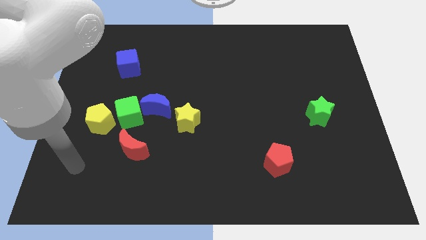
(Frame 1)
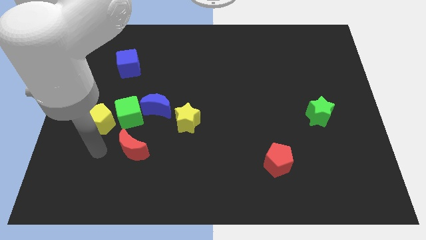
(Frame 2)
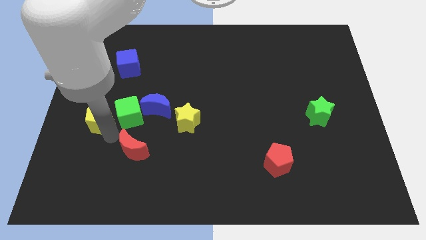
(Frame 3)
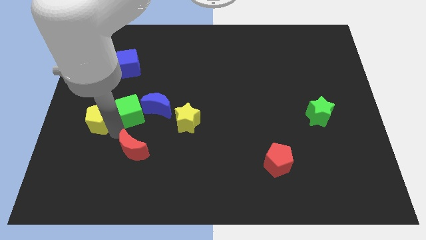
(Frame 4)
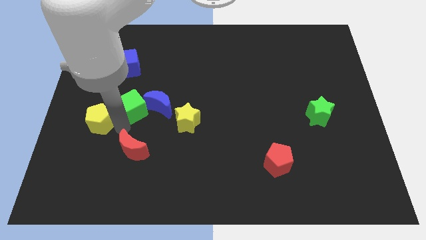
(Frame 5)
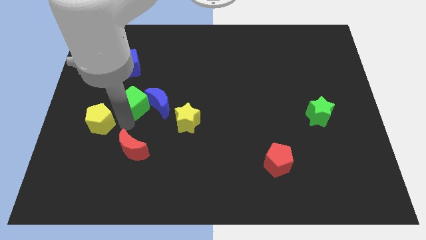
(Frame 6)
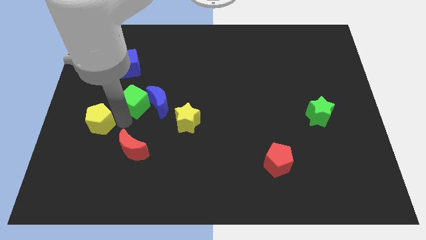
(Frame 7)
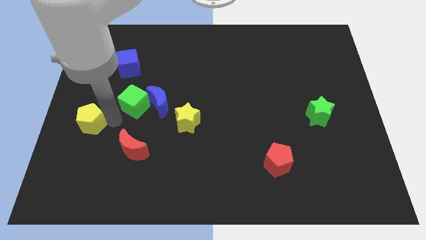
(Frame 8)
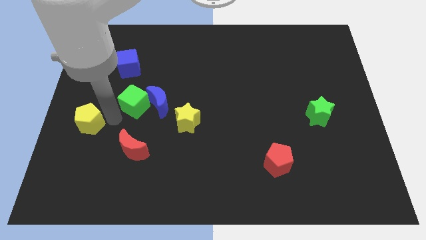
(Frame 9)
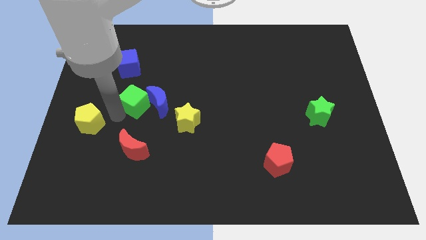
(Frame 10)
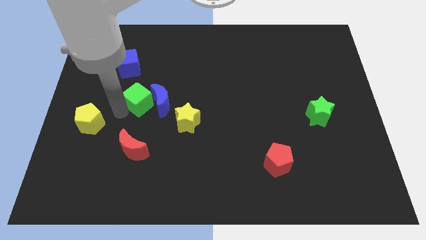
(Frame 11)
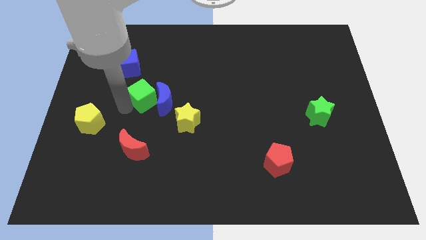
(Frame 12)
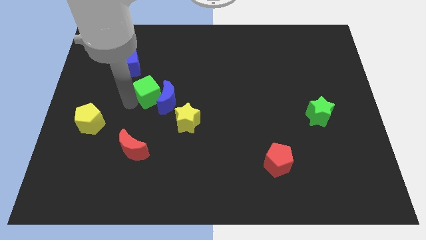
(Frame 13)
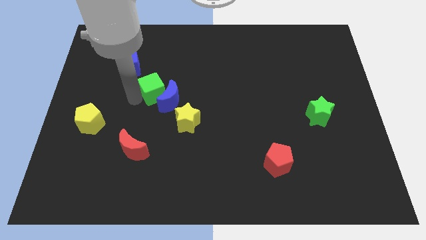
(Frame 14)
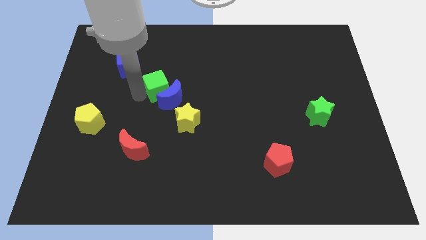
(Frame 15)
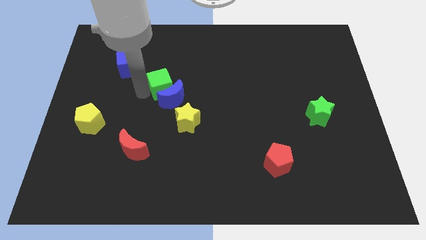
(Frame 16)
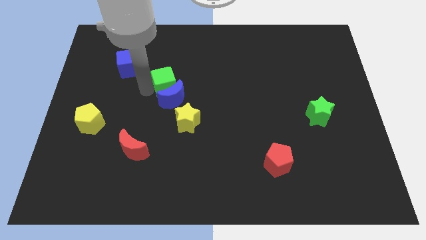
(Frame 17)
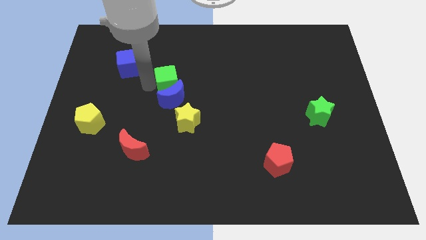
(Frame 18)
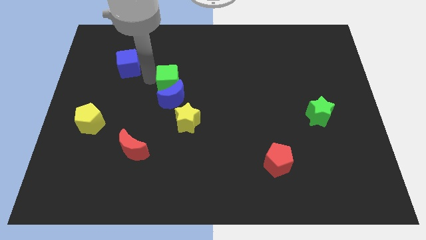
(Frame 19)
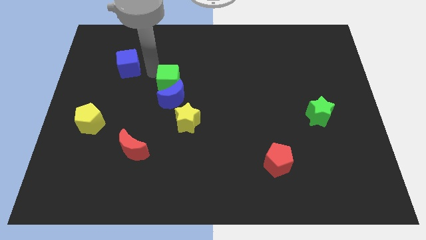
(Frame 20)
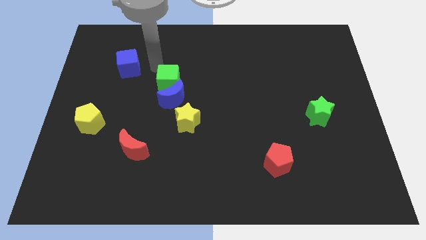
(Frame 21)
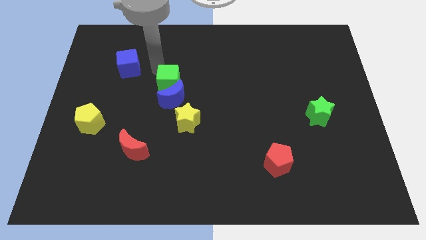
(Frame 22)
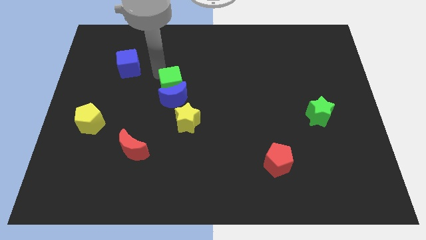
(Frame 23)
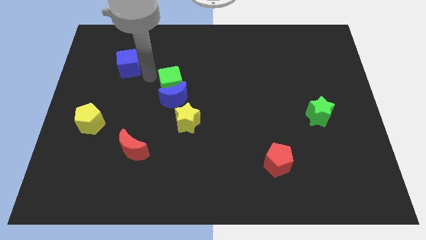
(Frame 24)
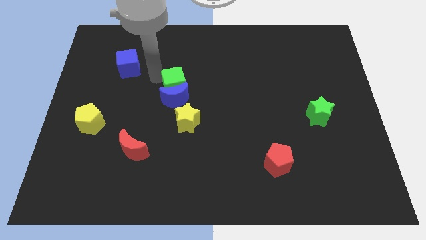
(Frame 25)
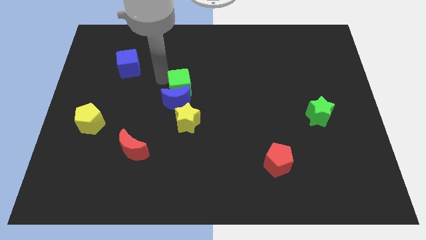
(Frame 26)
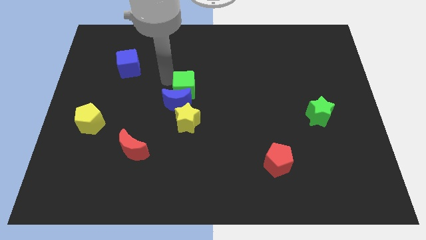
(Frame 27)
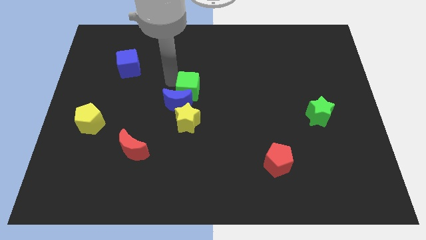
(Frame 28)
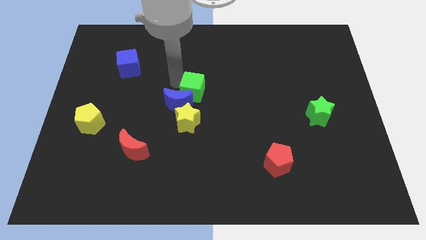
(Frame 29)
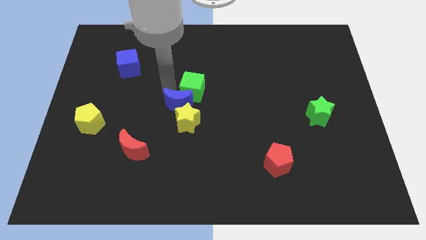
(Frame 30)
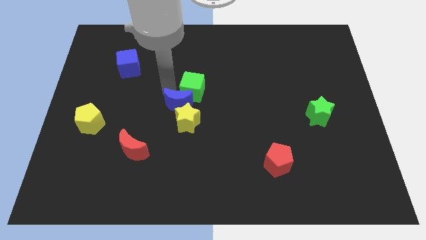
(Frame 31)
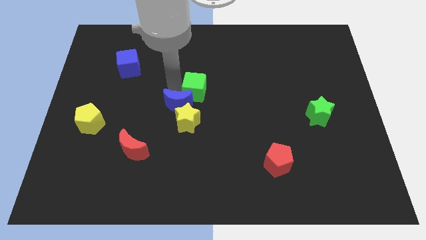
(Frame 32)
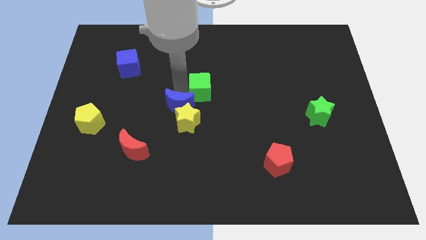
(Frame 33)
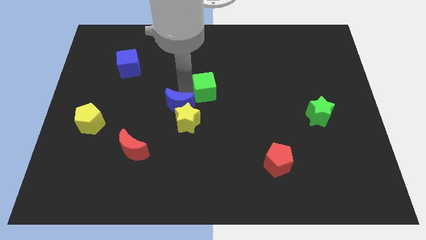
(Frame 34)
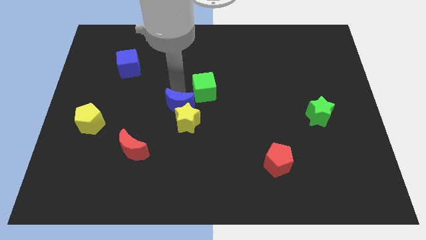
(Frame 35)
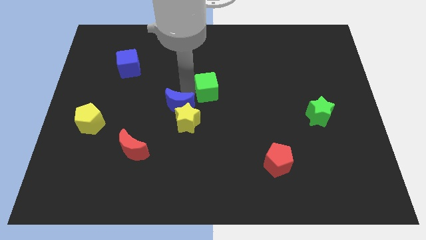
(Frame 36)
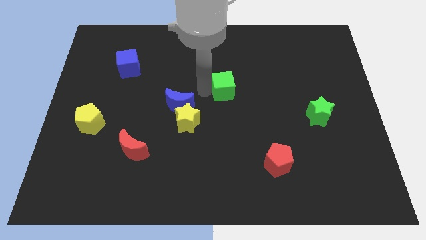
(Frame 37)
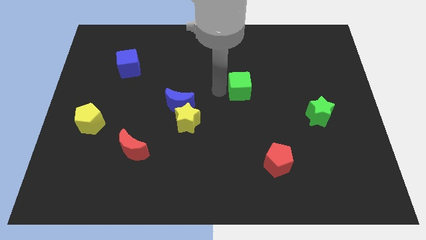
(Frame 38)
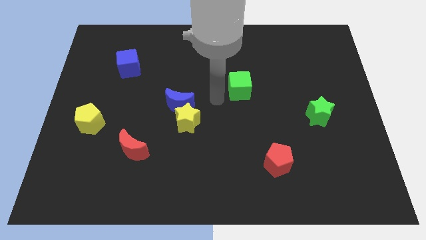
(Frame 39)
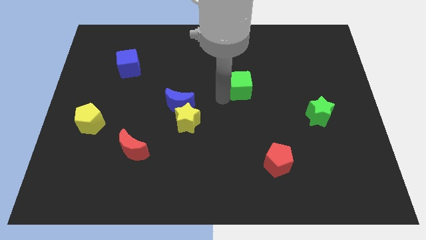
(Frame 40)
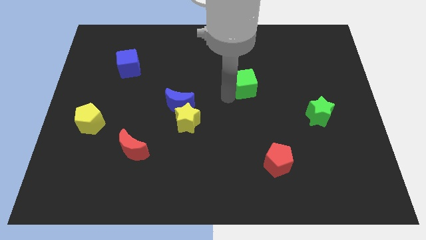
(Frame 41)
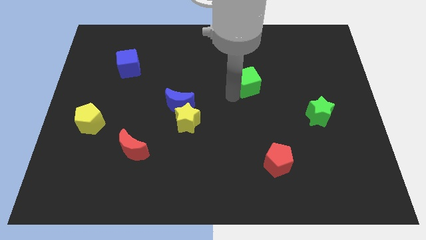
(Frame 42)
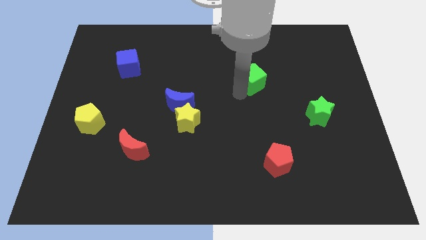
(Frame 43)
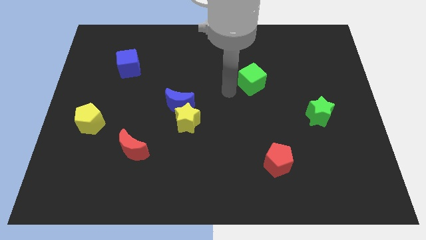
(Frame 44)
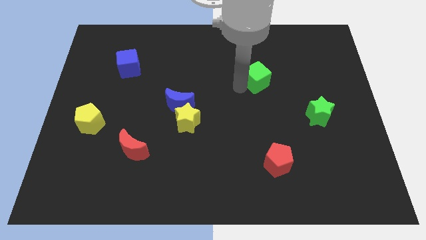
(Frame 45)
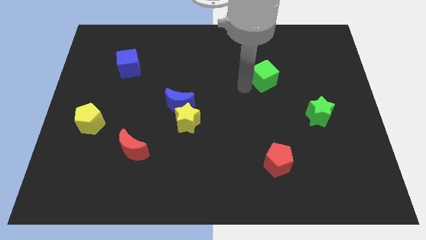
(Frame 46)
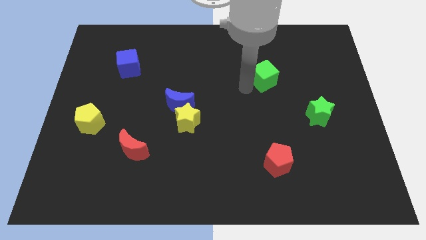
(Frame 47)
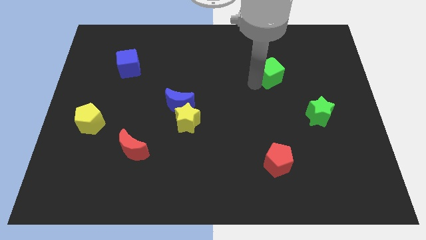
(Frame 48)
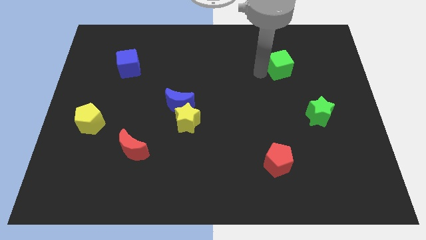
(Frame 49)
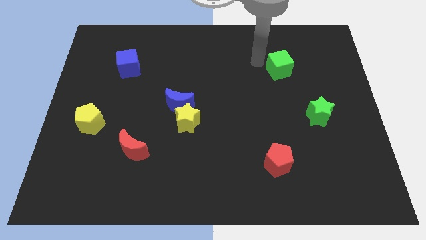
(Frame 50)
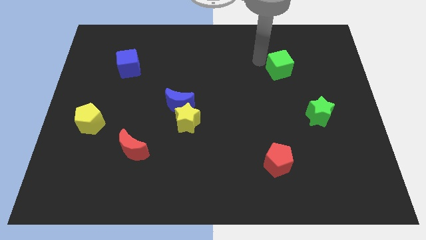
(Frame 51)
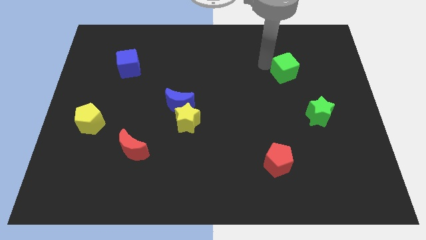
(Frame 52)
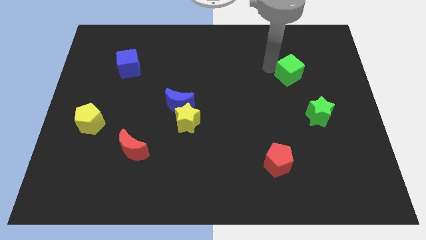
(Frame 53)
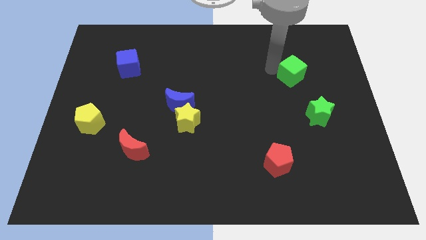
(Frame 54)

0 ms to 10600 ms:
move the green cube above the green star

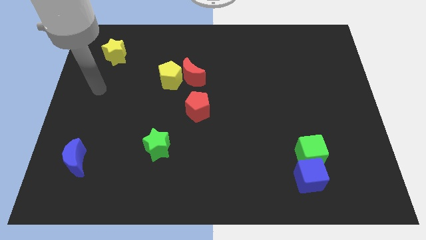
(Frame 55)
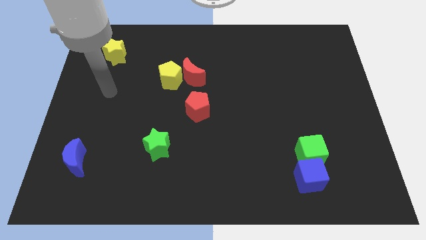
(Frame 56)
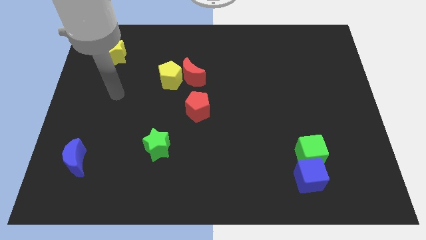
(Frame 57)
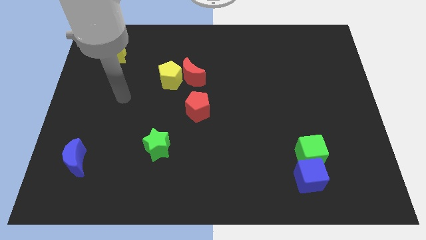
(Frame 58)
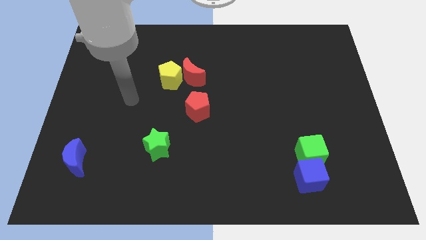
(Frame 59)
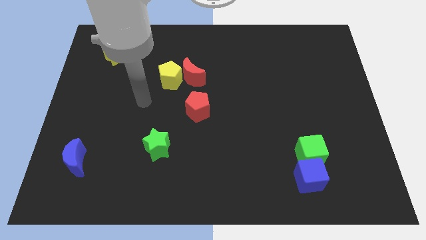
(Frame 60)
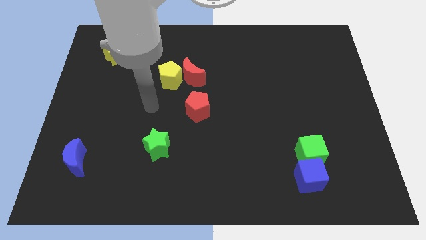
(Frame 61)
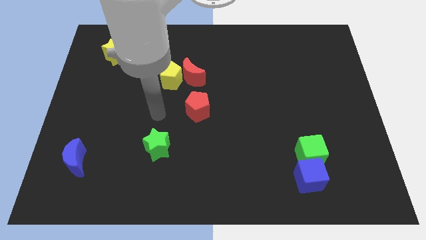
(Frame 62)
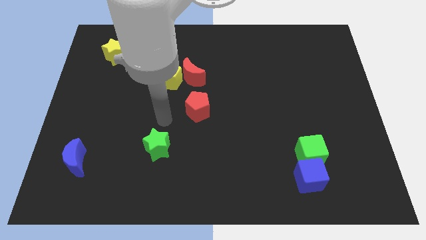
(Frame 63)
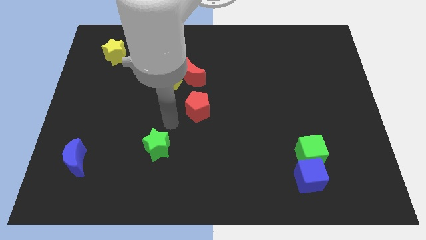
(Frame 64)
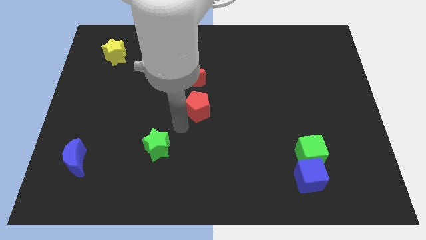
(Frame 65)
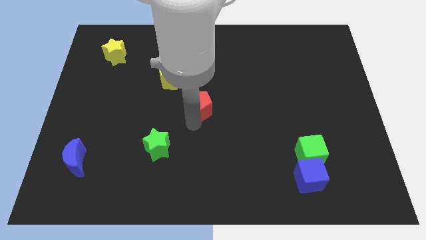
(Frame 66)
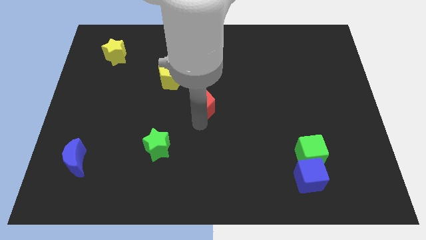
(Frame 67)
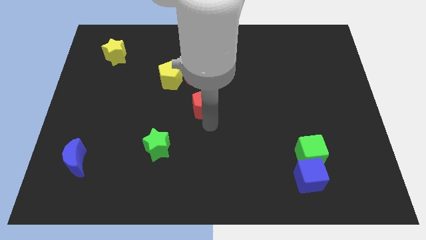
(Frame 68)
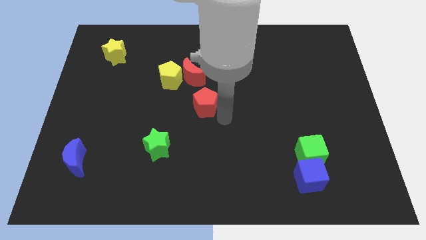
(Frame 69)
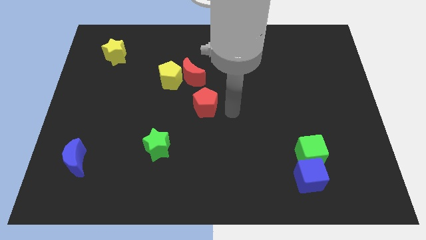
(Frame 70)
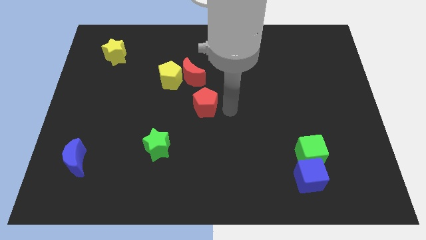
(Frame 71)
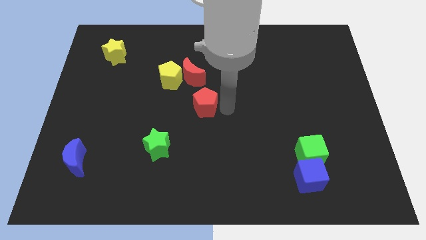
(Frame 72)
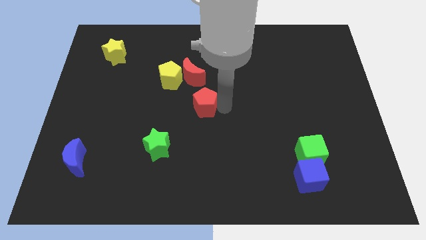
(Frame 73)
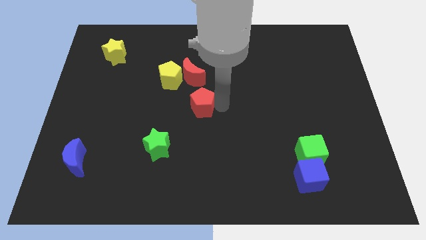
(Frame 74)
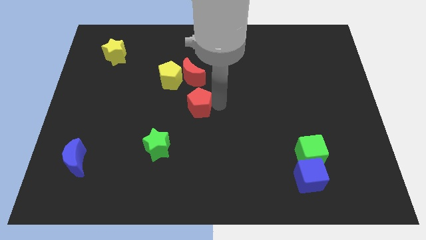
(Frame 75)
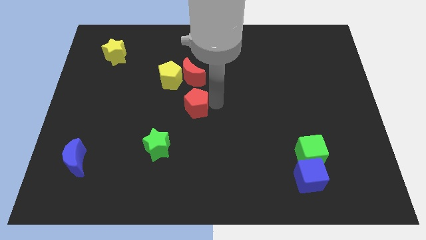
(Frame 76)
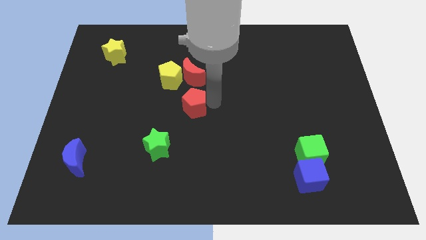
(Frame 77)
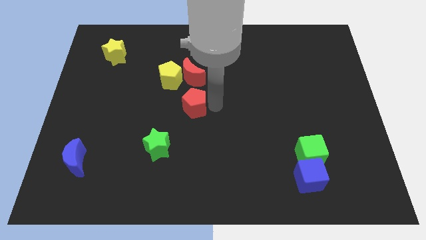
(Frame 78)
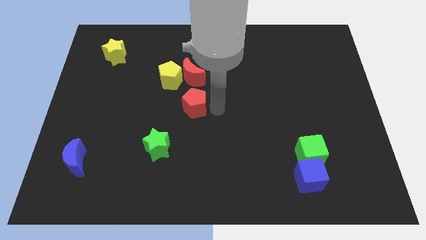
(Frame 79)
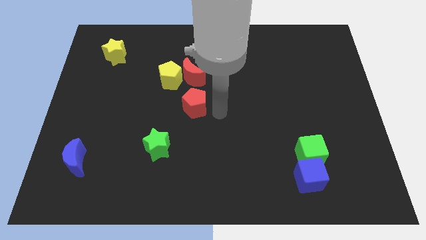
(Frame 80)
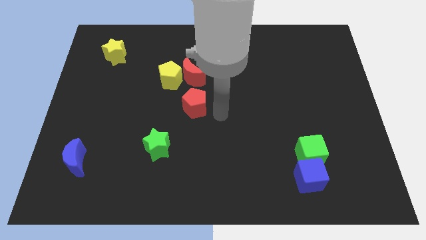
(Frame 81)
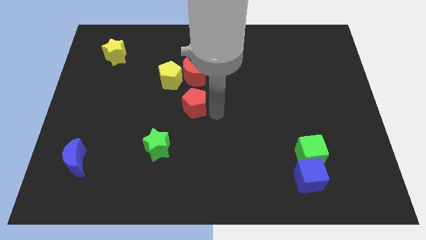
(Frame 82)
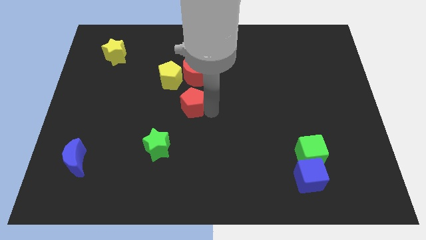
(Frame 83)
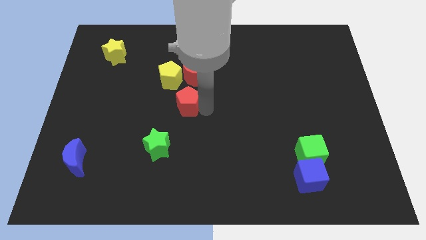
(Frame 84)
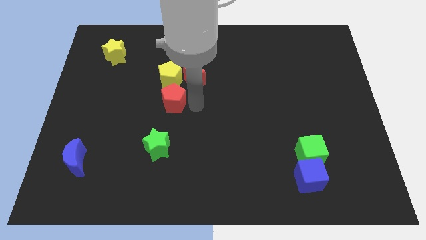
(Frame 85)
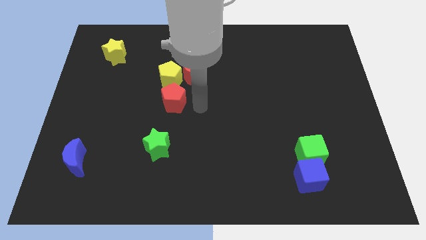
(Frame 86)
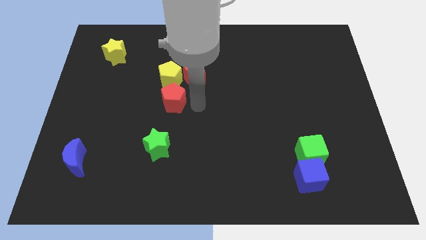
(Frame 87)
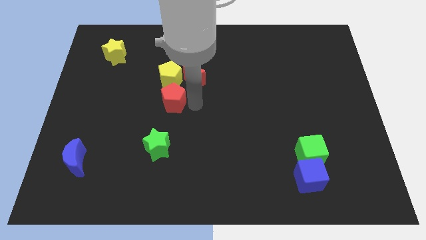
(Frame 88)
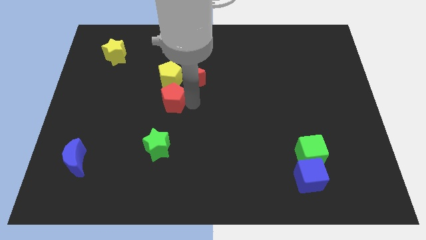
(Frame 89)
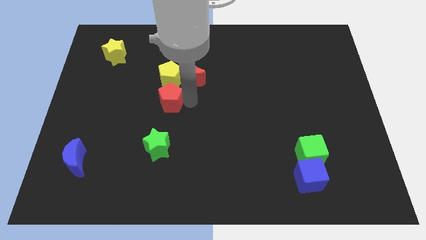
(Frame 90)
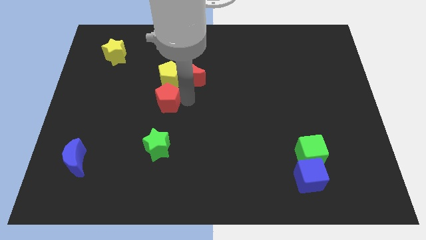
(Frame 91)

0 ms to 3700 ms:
push the red pentagon diagonally down and to the left of the yellow pentagon
